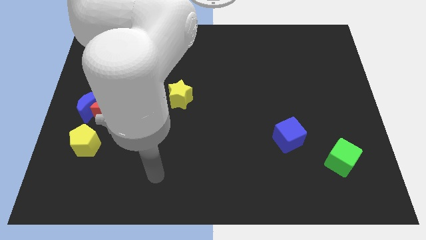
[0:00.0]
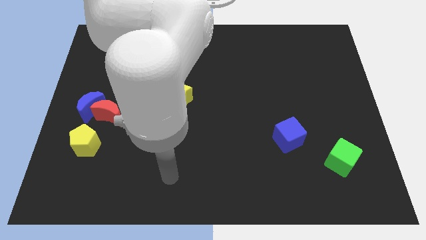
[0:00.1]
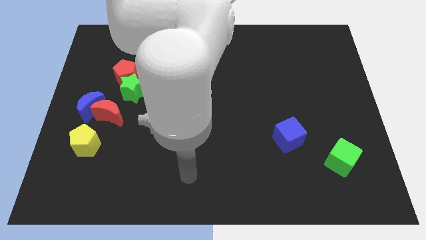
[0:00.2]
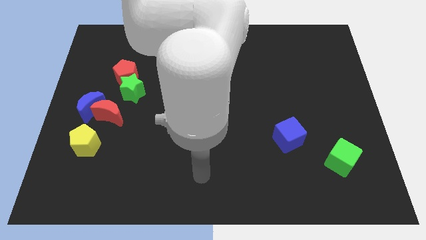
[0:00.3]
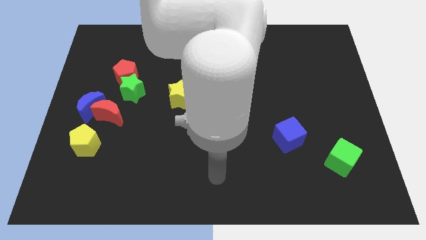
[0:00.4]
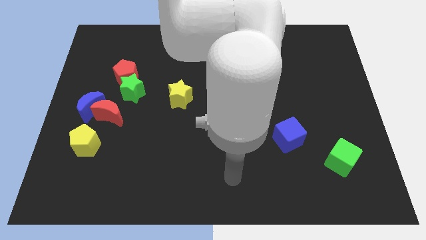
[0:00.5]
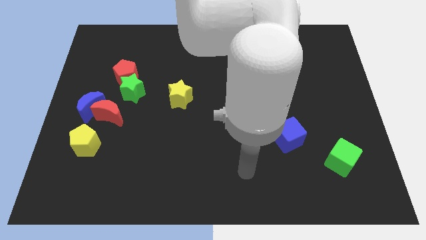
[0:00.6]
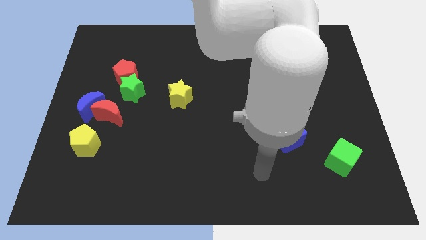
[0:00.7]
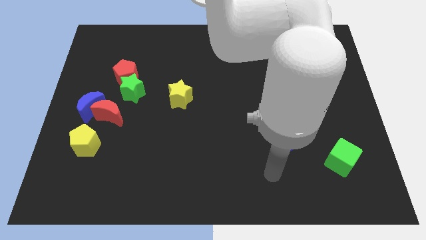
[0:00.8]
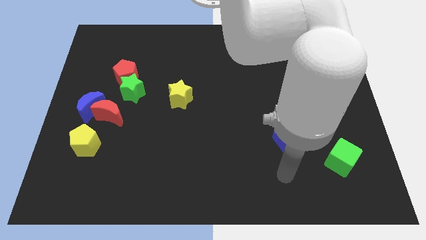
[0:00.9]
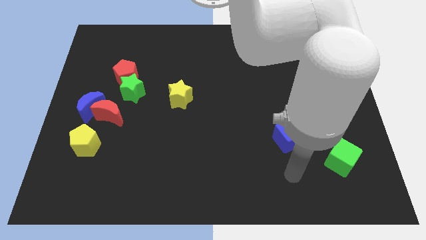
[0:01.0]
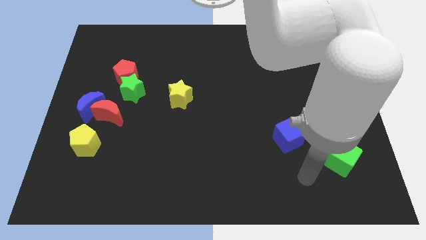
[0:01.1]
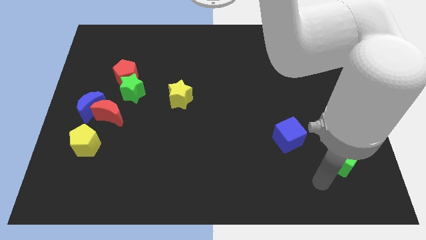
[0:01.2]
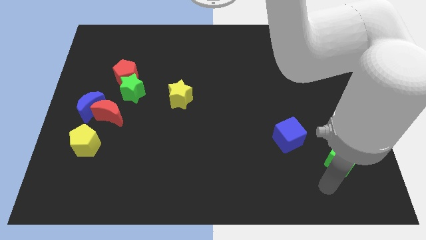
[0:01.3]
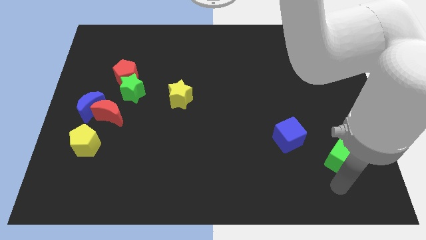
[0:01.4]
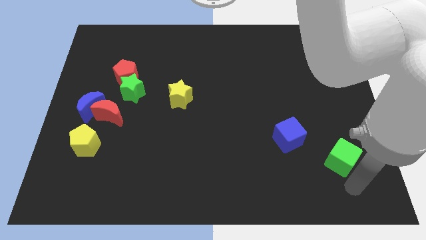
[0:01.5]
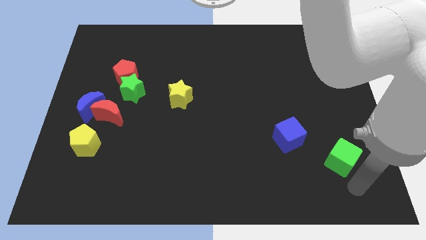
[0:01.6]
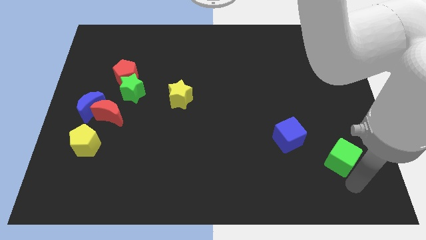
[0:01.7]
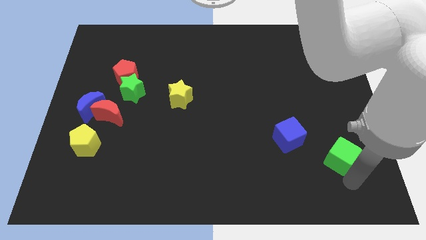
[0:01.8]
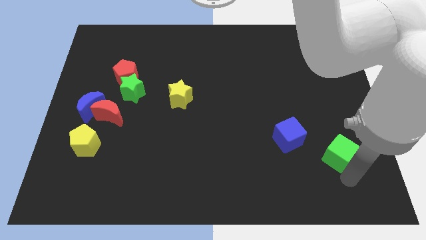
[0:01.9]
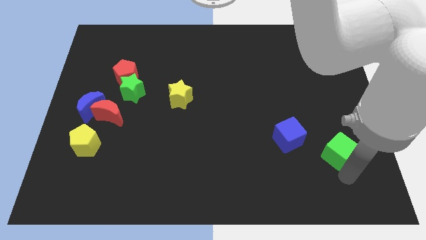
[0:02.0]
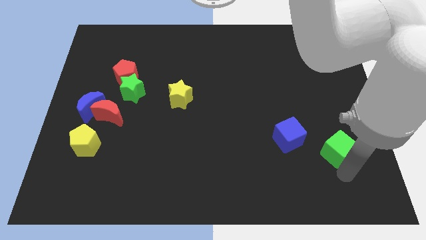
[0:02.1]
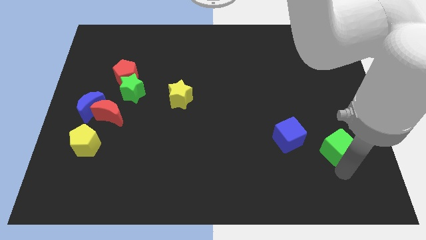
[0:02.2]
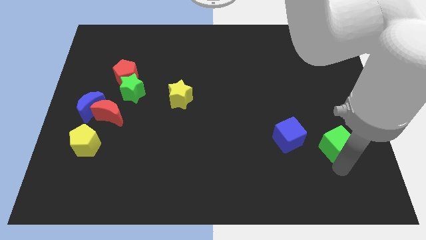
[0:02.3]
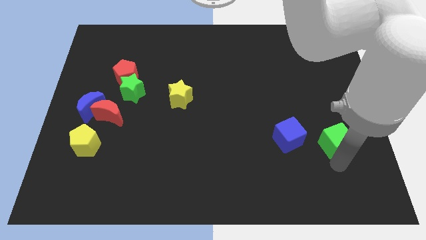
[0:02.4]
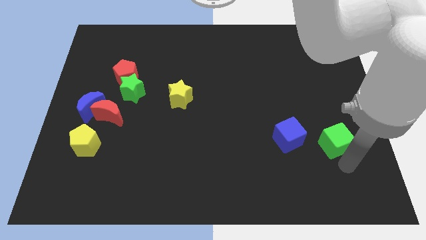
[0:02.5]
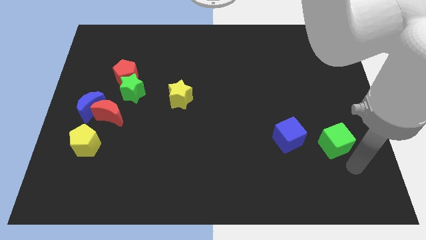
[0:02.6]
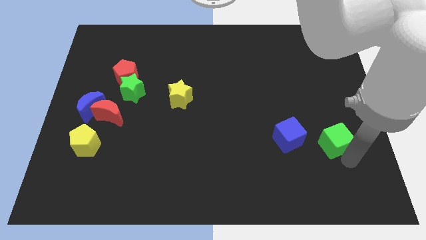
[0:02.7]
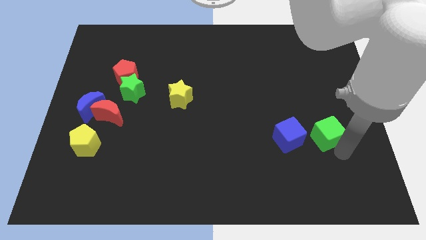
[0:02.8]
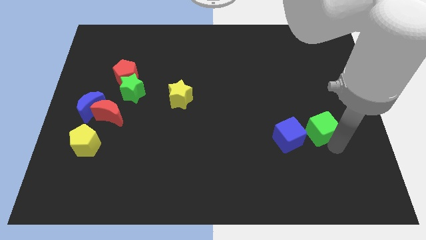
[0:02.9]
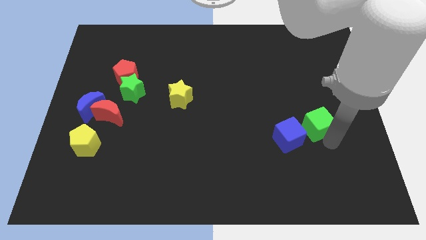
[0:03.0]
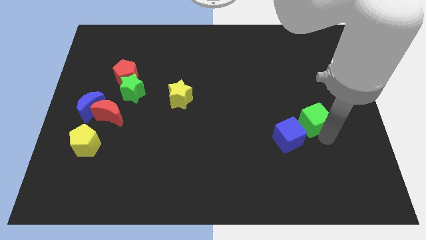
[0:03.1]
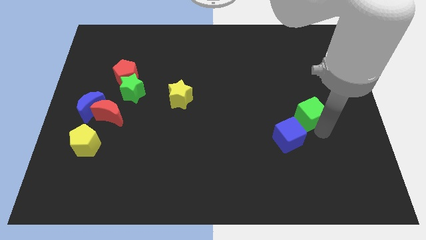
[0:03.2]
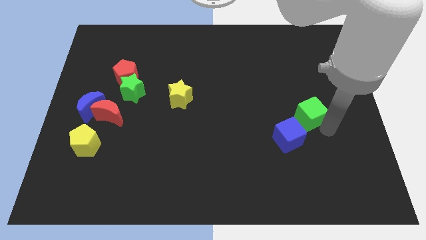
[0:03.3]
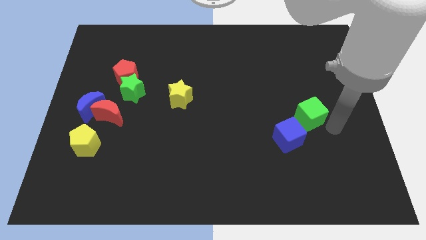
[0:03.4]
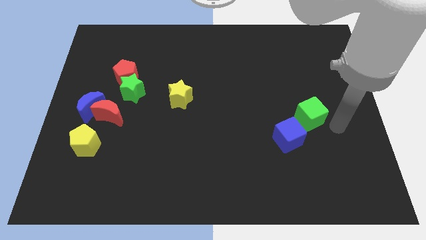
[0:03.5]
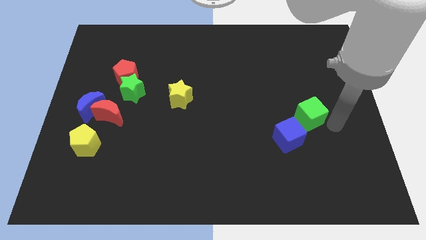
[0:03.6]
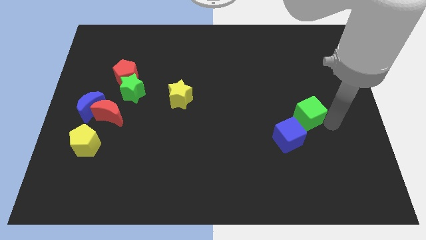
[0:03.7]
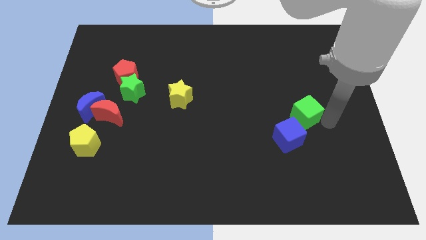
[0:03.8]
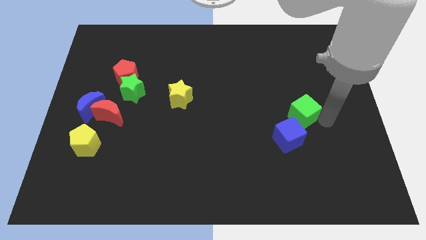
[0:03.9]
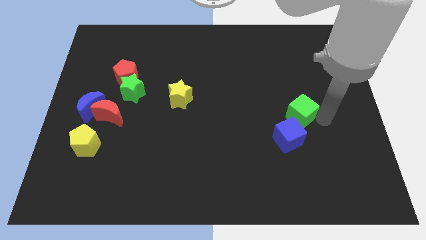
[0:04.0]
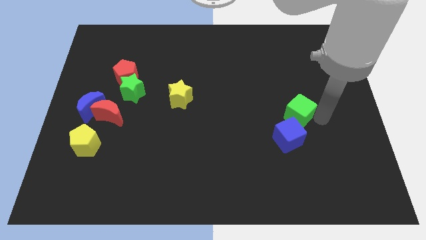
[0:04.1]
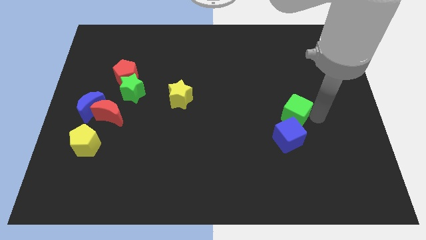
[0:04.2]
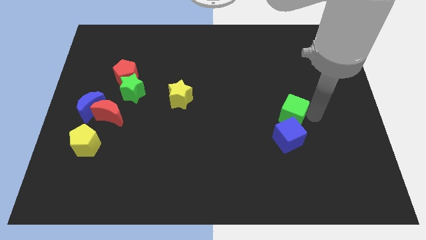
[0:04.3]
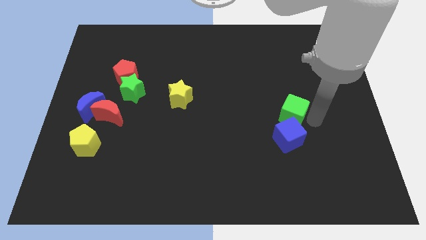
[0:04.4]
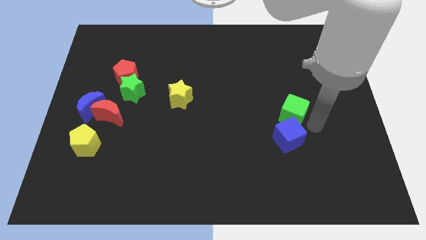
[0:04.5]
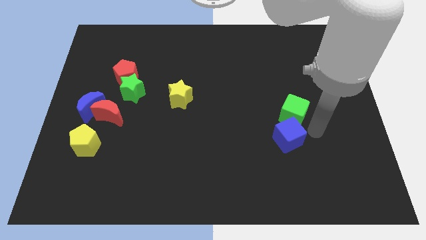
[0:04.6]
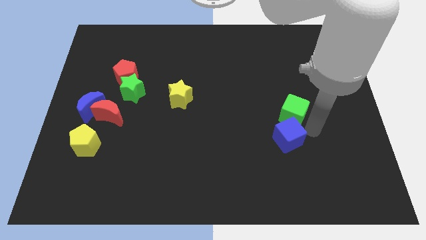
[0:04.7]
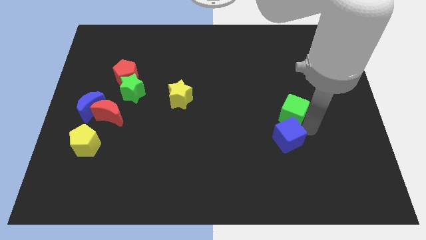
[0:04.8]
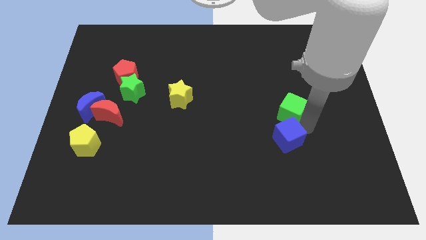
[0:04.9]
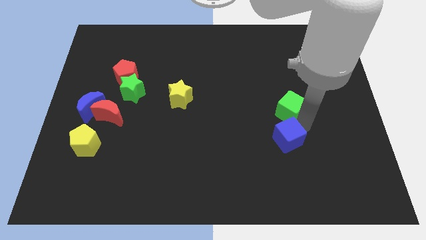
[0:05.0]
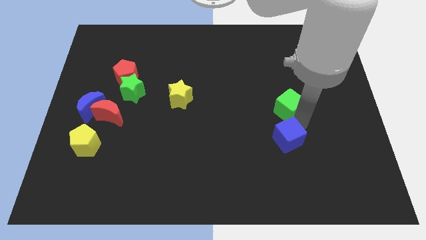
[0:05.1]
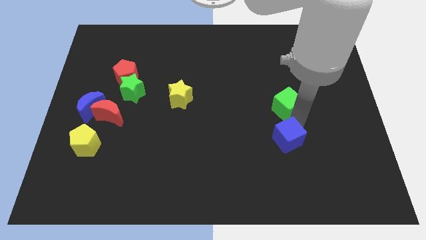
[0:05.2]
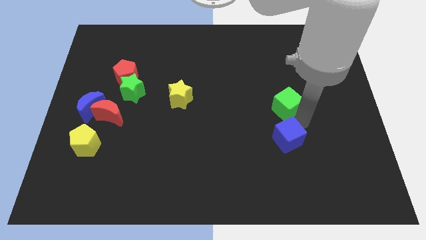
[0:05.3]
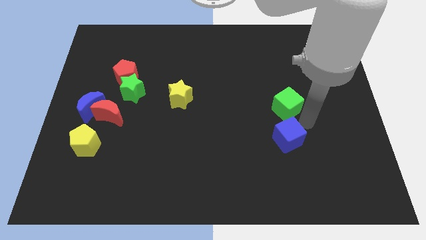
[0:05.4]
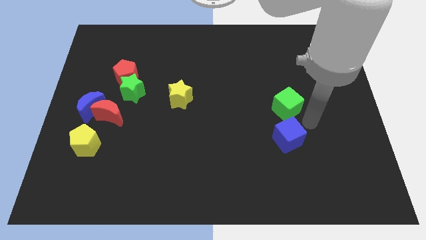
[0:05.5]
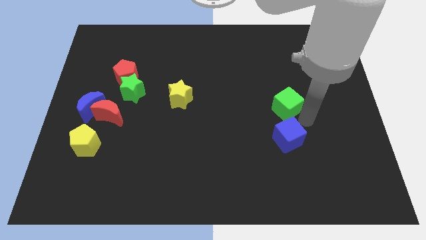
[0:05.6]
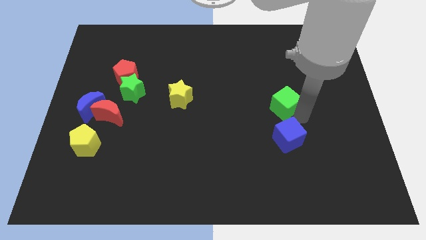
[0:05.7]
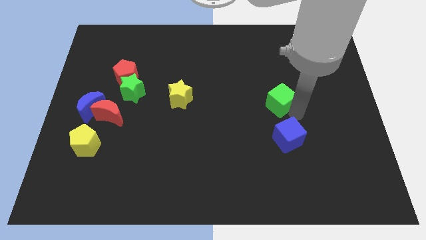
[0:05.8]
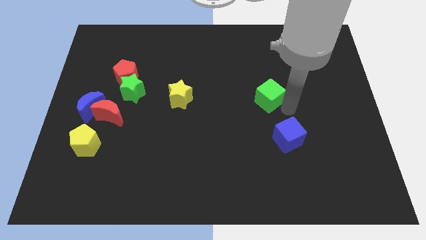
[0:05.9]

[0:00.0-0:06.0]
slide the green cube up and then to the left

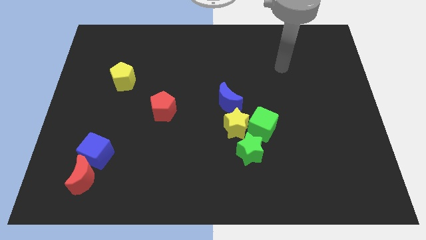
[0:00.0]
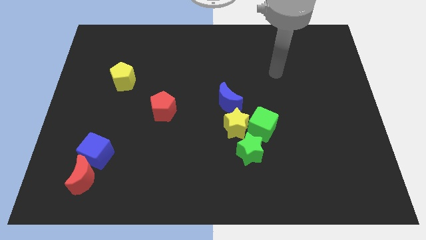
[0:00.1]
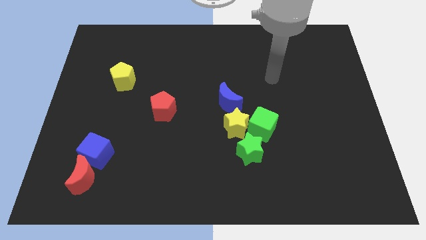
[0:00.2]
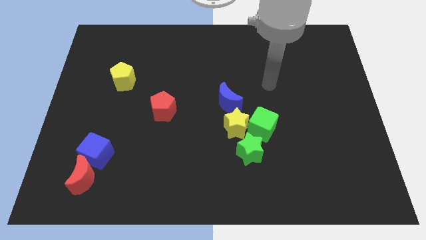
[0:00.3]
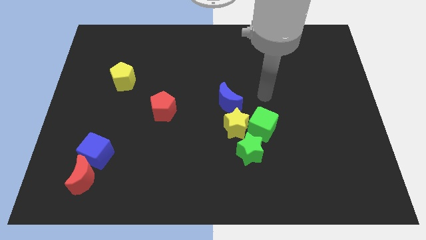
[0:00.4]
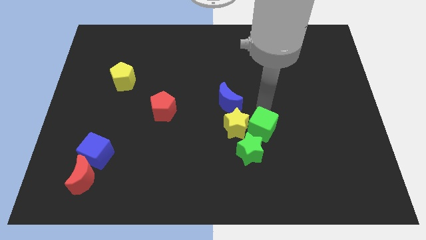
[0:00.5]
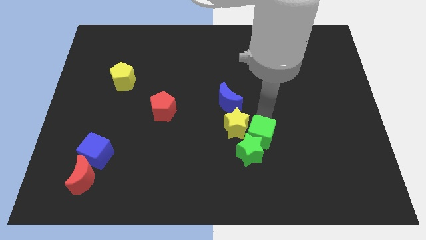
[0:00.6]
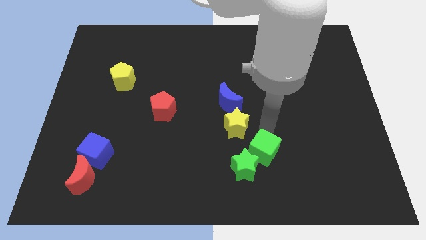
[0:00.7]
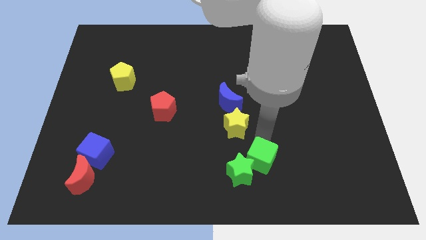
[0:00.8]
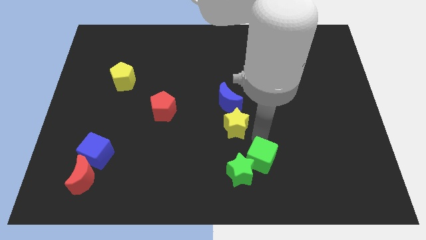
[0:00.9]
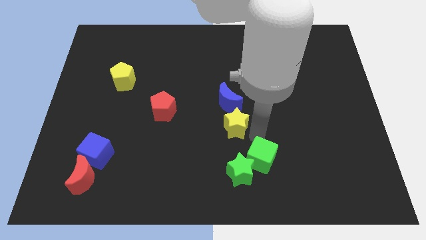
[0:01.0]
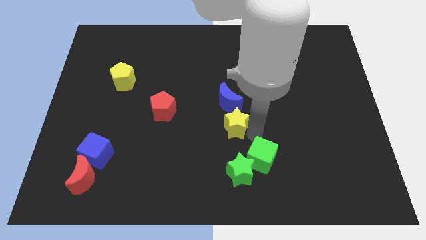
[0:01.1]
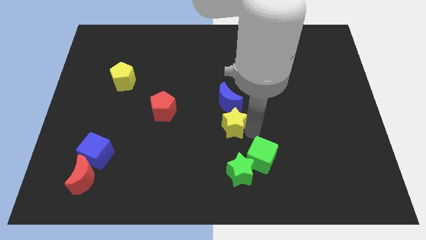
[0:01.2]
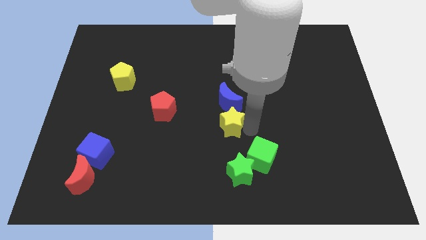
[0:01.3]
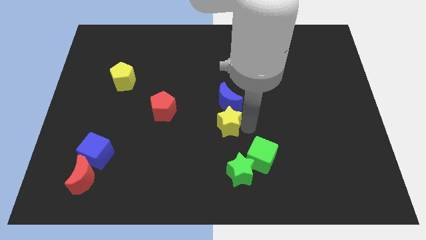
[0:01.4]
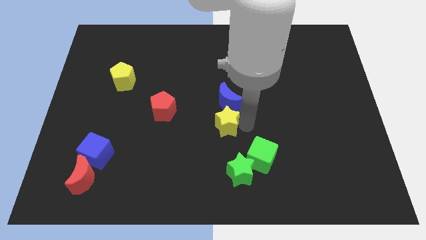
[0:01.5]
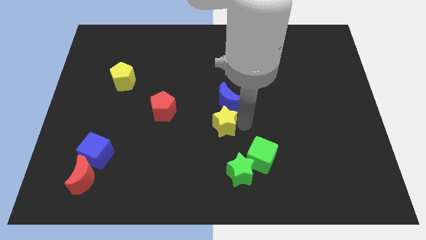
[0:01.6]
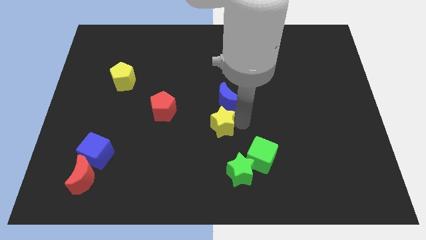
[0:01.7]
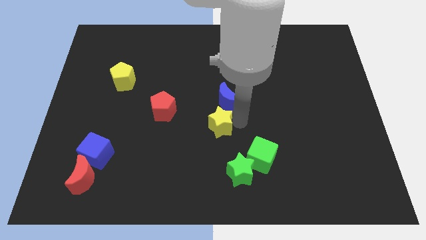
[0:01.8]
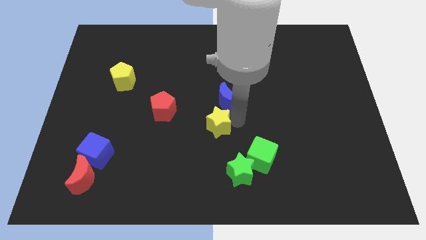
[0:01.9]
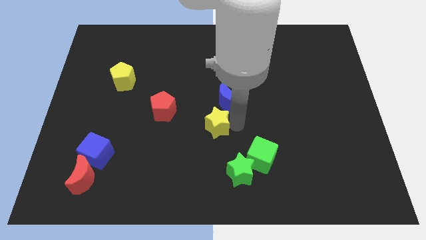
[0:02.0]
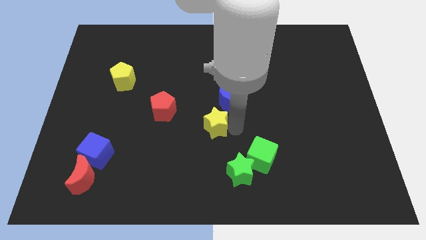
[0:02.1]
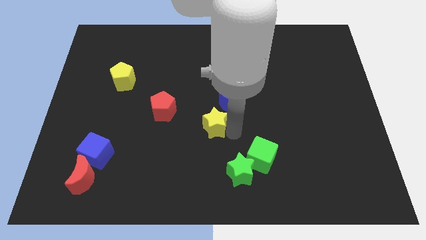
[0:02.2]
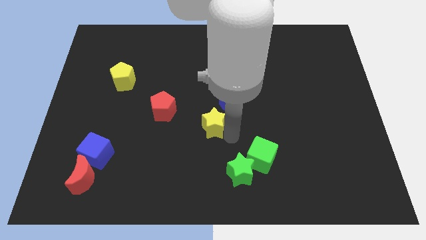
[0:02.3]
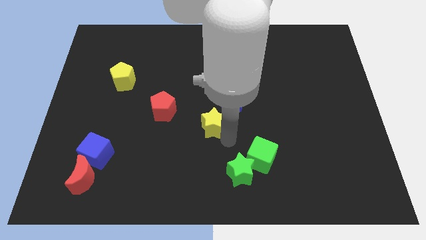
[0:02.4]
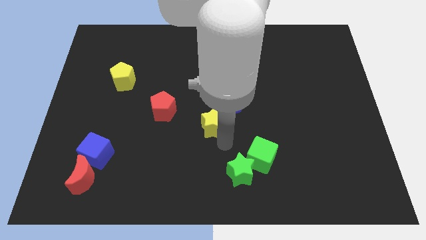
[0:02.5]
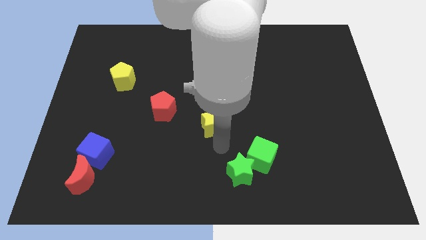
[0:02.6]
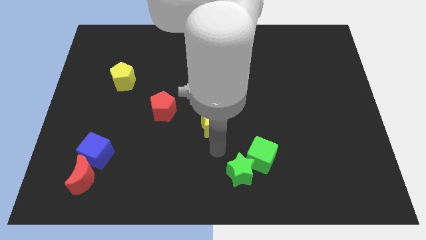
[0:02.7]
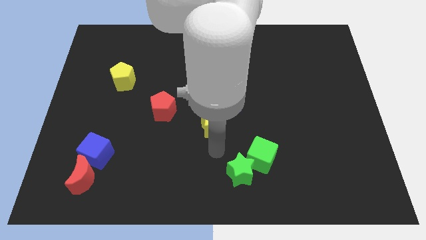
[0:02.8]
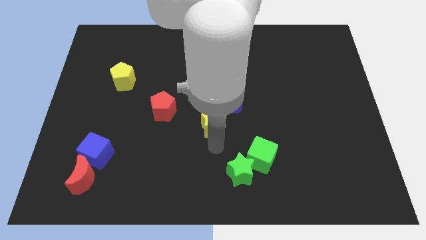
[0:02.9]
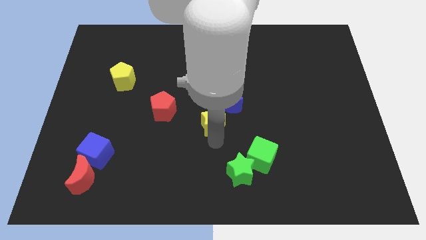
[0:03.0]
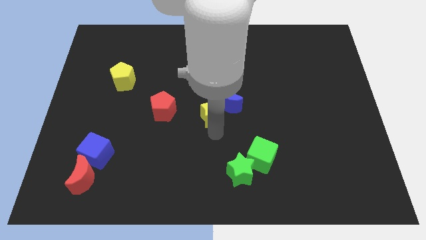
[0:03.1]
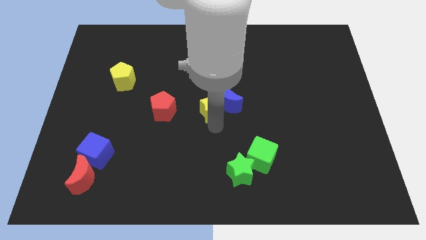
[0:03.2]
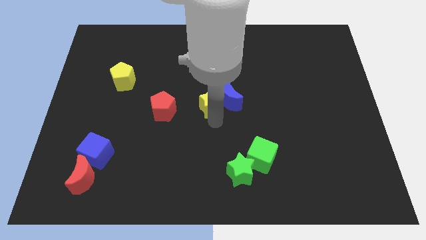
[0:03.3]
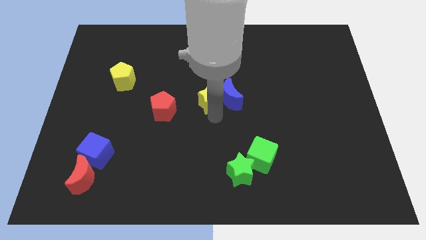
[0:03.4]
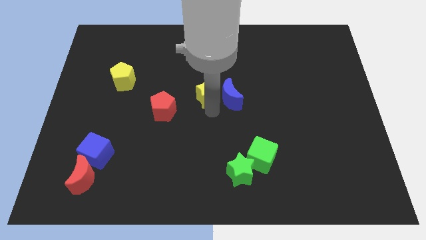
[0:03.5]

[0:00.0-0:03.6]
slightly slide the yellow star upwards
